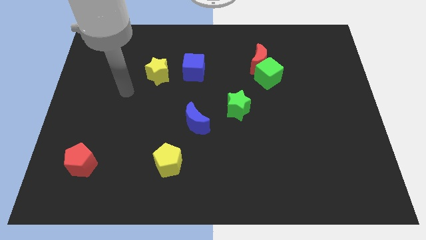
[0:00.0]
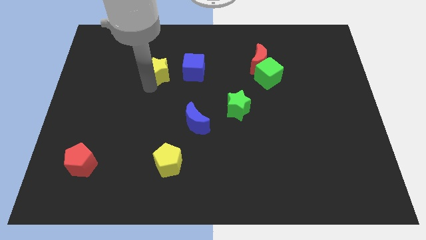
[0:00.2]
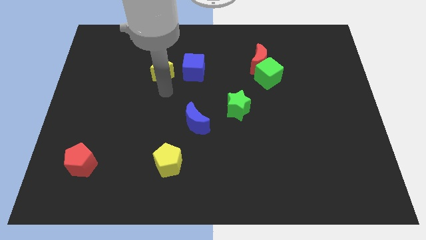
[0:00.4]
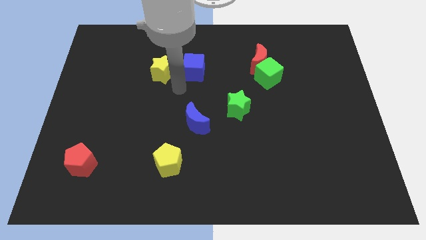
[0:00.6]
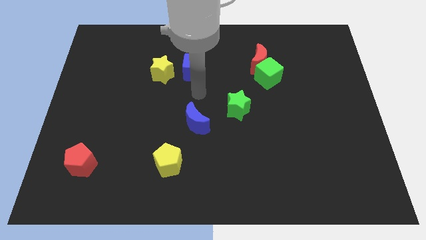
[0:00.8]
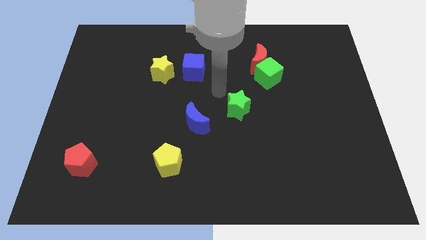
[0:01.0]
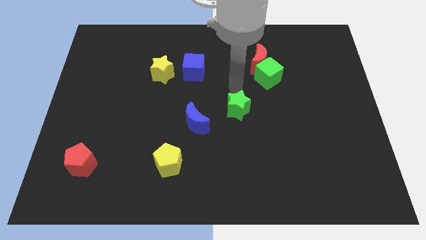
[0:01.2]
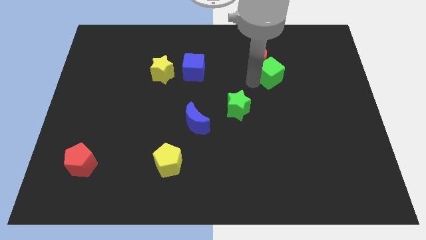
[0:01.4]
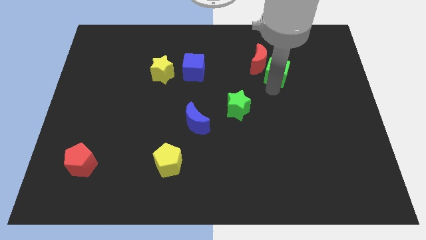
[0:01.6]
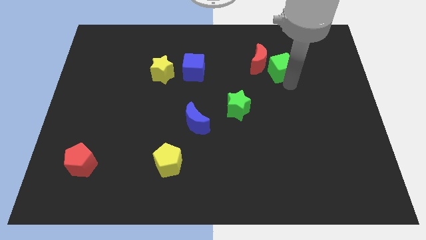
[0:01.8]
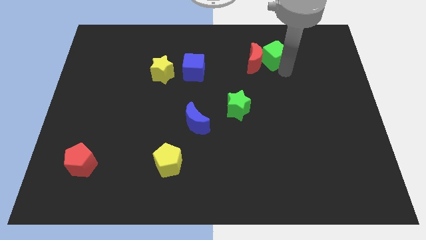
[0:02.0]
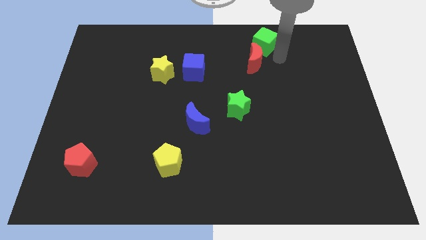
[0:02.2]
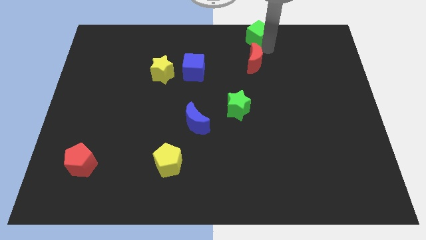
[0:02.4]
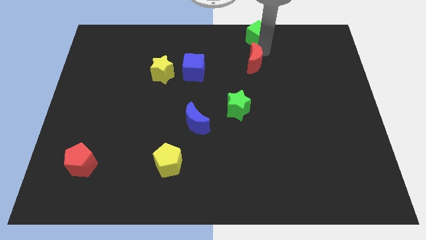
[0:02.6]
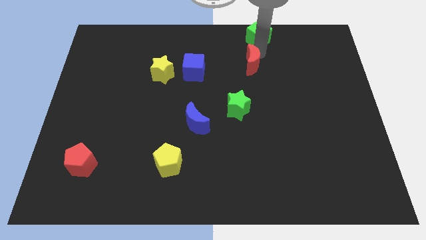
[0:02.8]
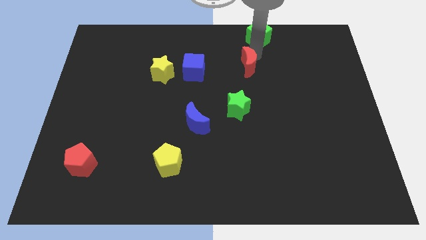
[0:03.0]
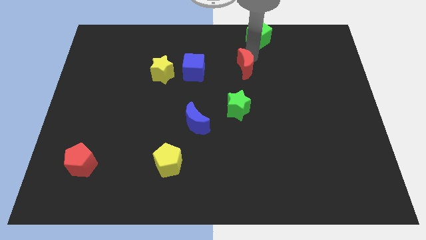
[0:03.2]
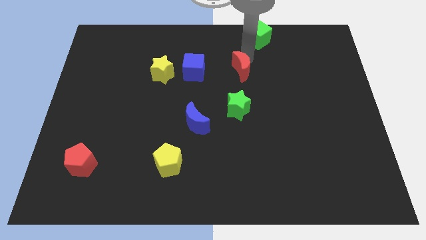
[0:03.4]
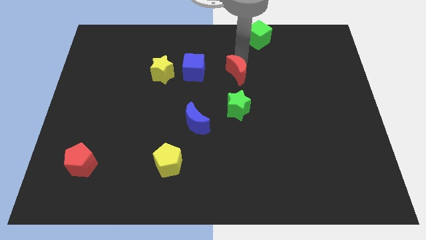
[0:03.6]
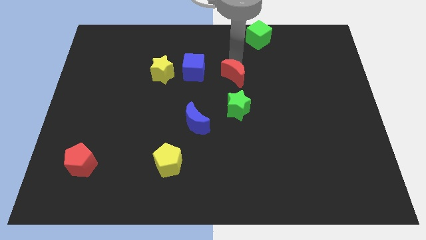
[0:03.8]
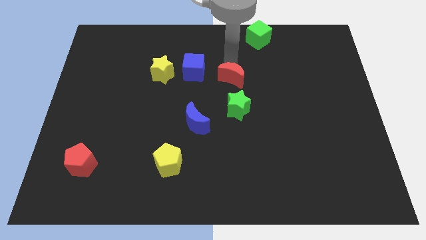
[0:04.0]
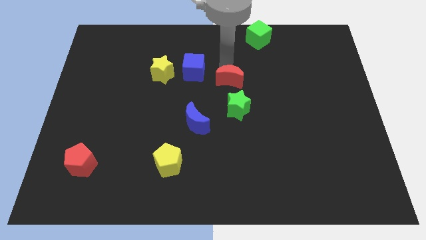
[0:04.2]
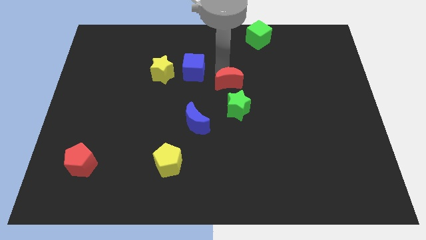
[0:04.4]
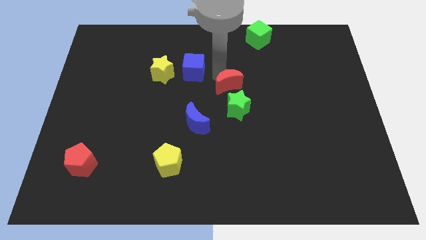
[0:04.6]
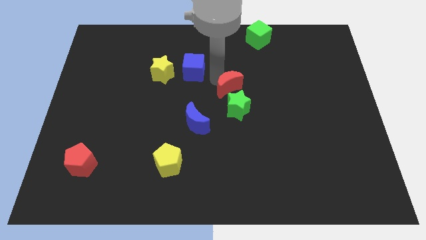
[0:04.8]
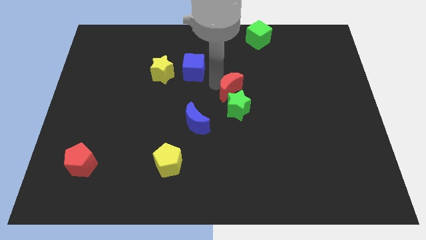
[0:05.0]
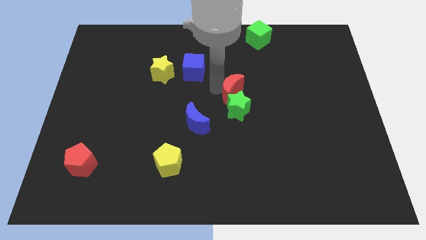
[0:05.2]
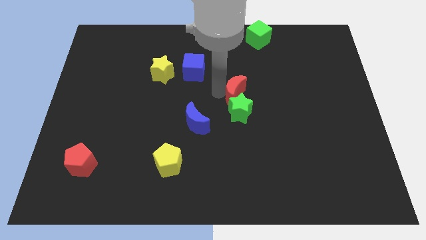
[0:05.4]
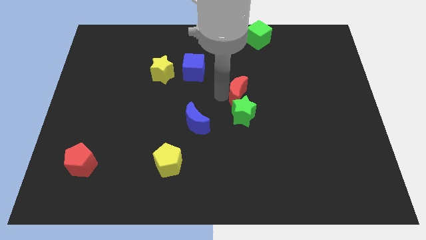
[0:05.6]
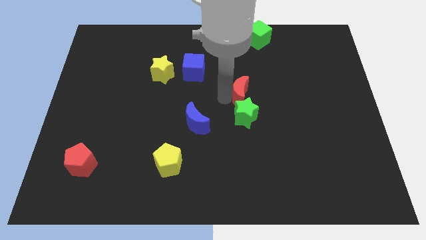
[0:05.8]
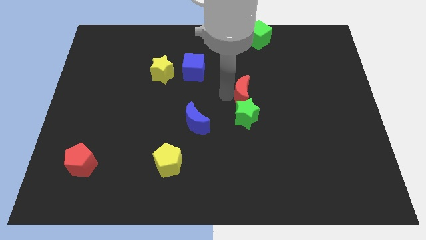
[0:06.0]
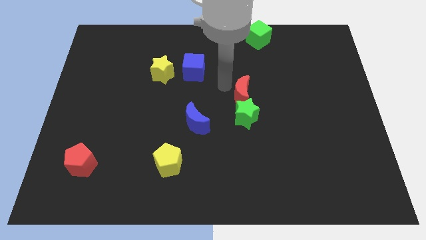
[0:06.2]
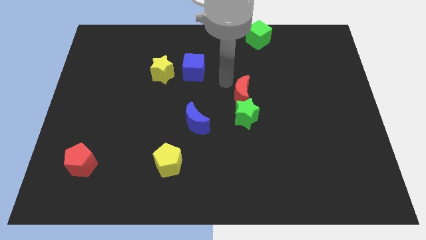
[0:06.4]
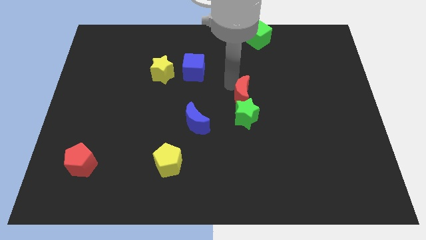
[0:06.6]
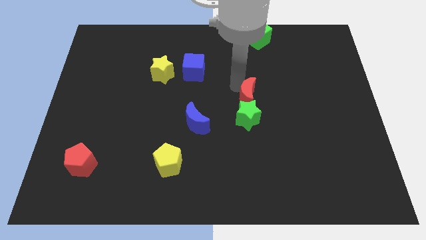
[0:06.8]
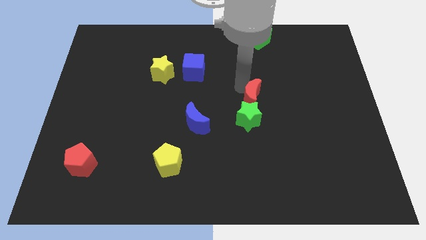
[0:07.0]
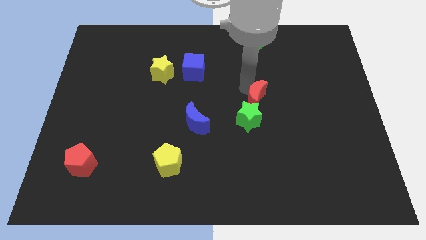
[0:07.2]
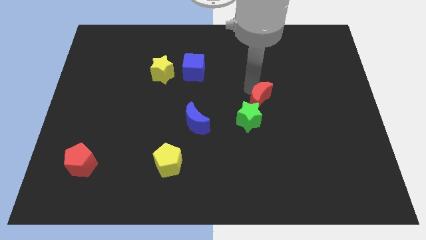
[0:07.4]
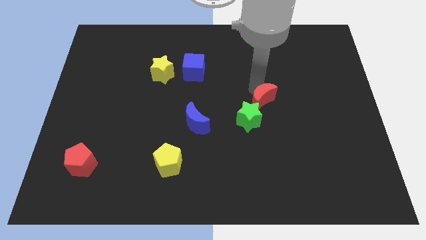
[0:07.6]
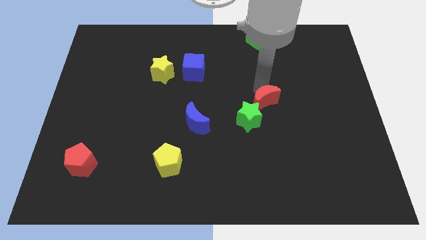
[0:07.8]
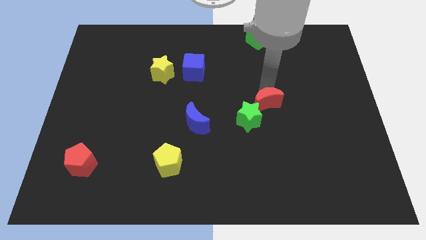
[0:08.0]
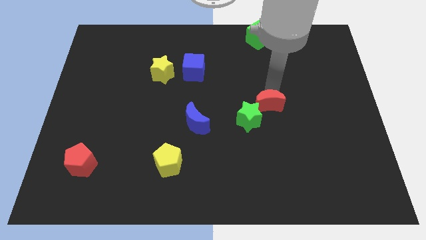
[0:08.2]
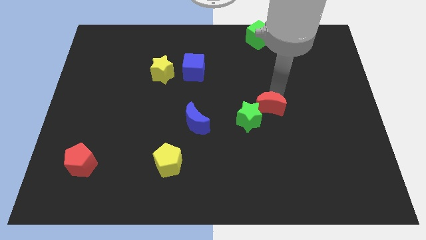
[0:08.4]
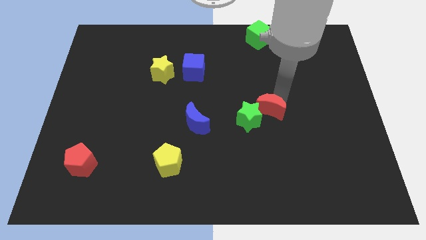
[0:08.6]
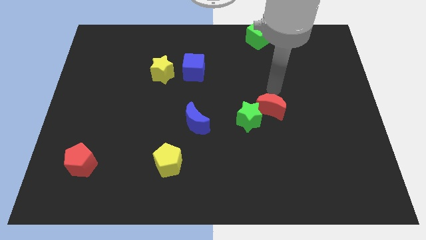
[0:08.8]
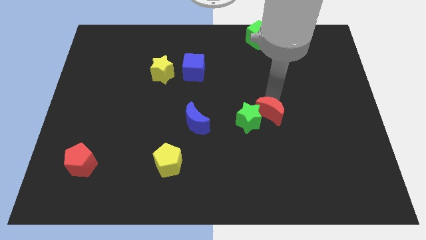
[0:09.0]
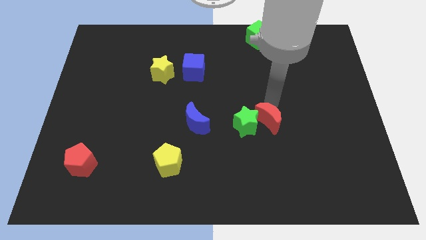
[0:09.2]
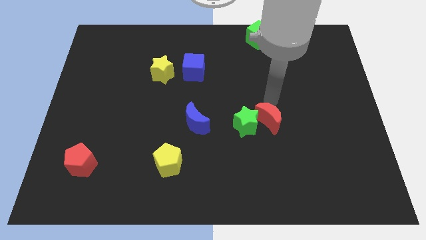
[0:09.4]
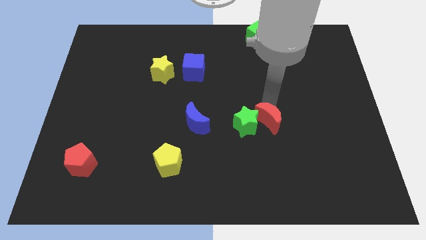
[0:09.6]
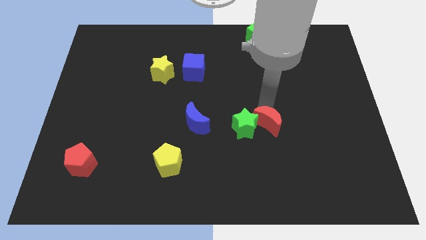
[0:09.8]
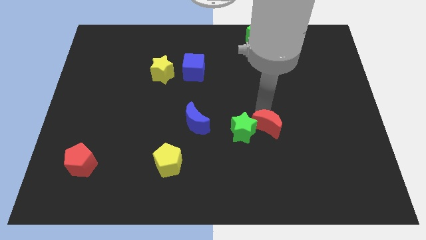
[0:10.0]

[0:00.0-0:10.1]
slide the red moon down

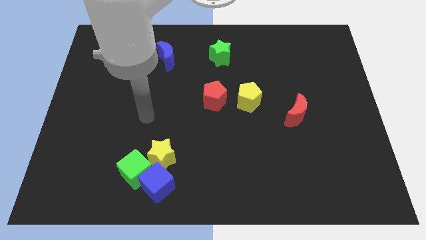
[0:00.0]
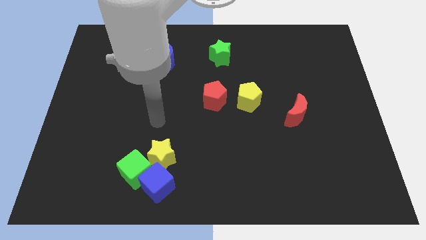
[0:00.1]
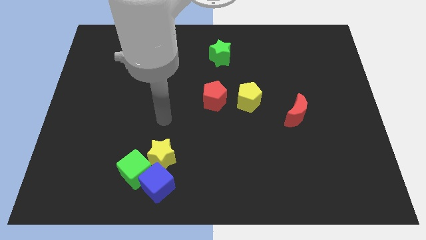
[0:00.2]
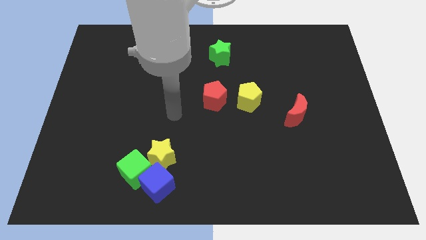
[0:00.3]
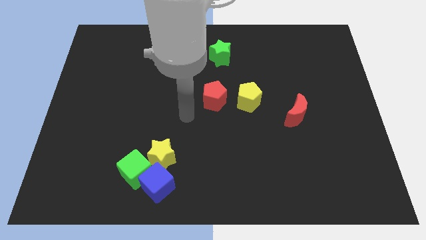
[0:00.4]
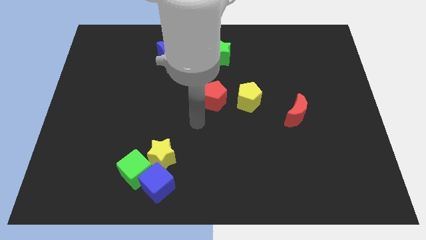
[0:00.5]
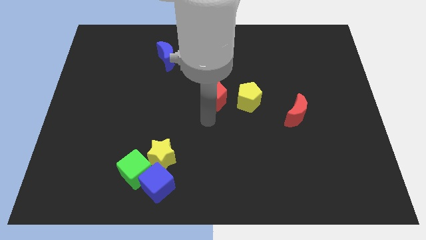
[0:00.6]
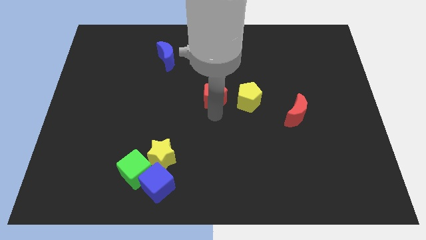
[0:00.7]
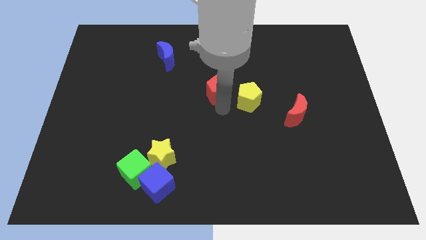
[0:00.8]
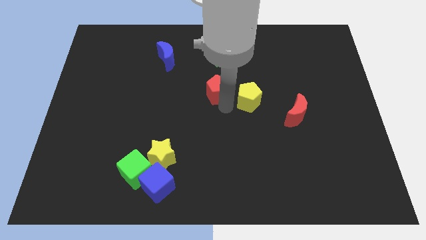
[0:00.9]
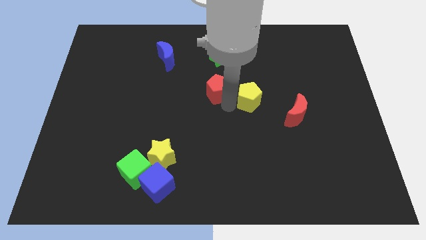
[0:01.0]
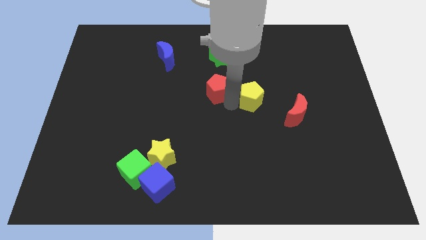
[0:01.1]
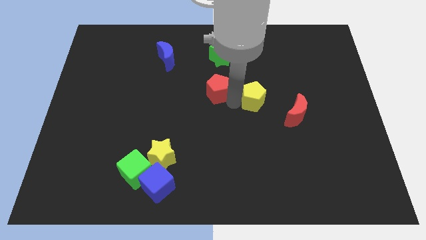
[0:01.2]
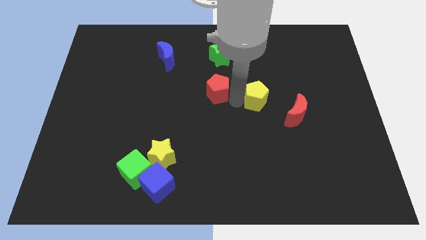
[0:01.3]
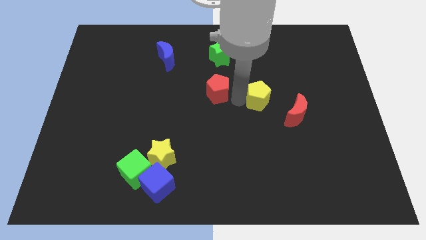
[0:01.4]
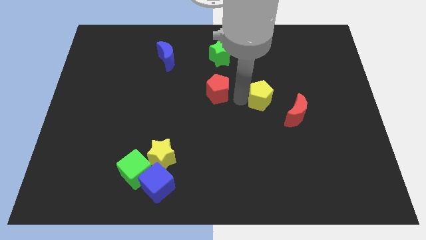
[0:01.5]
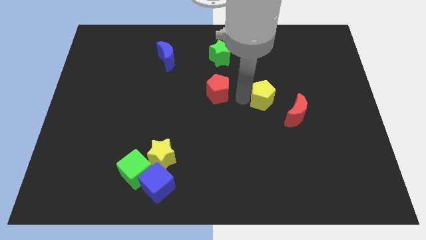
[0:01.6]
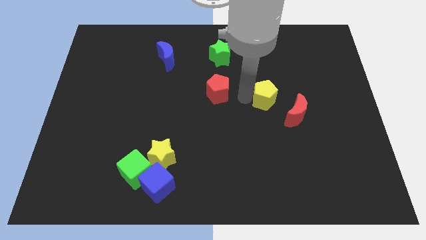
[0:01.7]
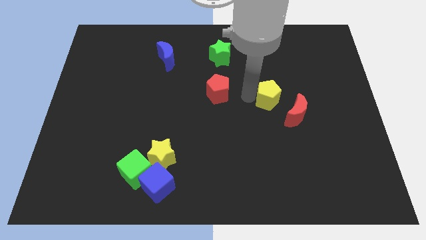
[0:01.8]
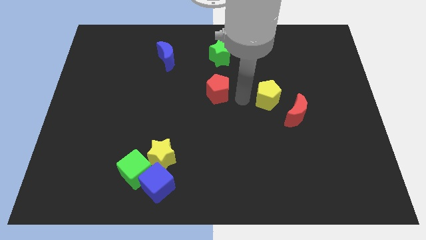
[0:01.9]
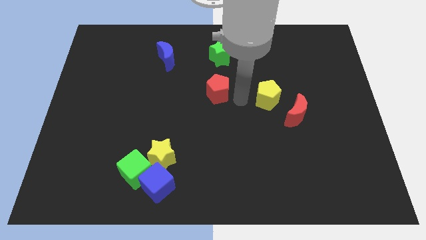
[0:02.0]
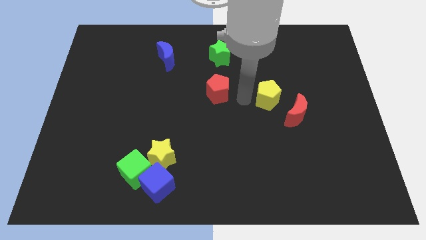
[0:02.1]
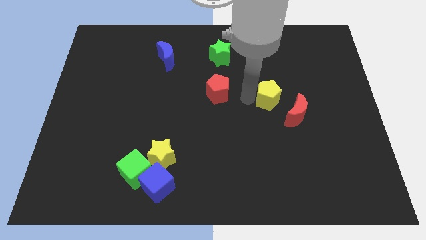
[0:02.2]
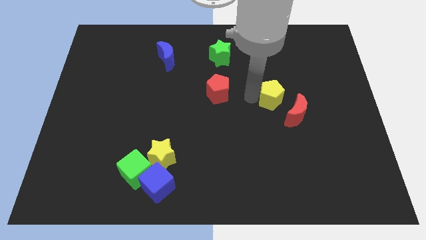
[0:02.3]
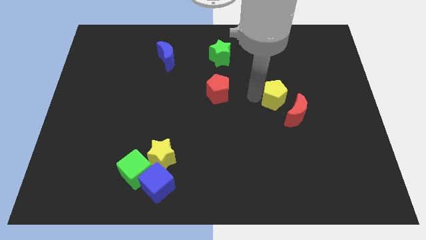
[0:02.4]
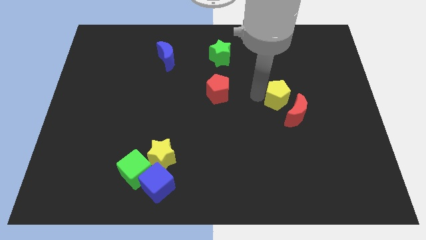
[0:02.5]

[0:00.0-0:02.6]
move the yellow pentagon right somewhat

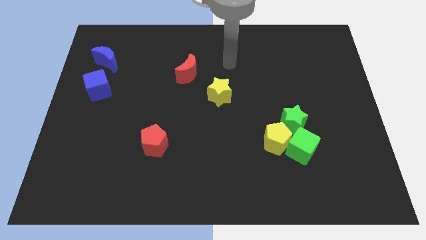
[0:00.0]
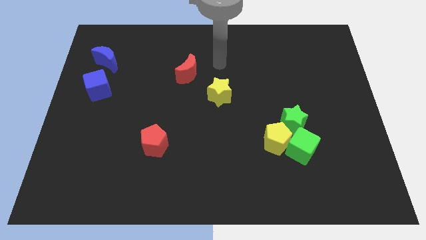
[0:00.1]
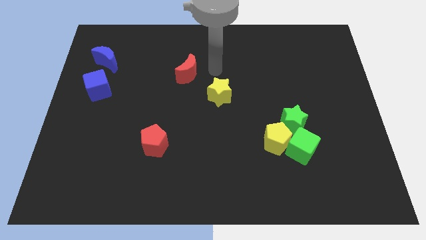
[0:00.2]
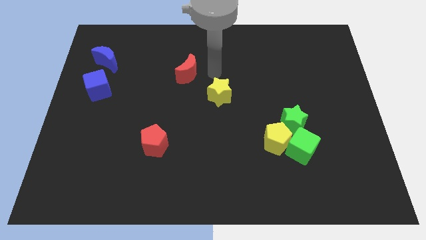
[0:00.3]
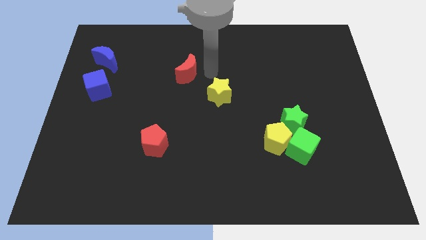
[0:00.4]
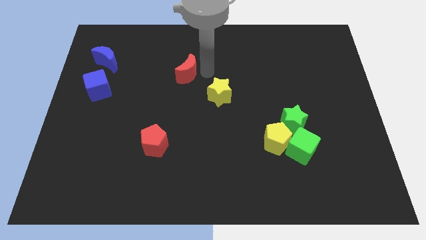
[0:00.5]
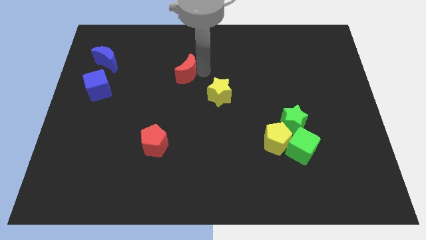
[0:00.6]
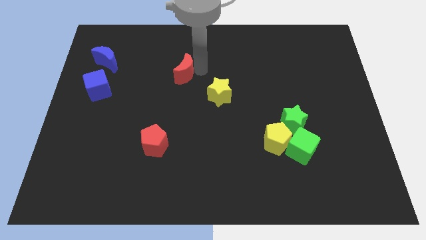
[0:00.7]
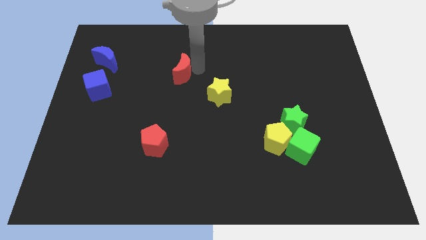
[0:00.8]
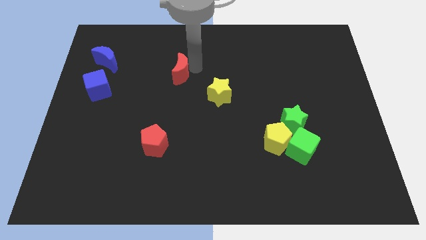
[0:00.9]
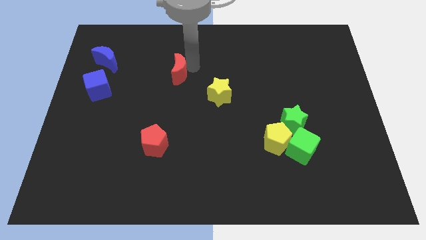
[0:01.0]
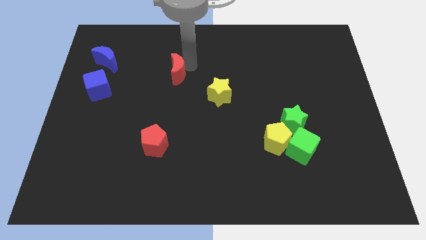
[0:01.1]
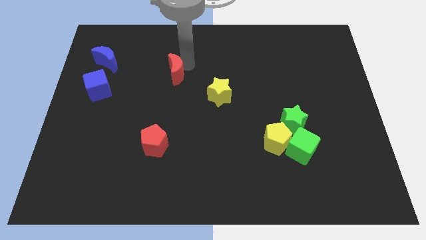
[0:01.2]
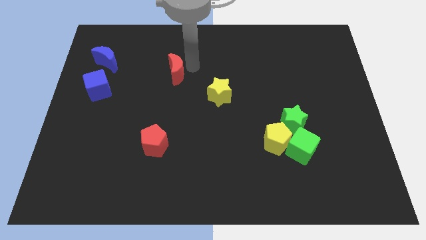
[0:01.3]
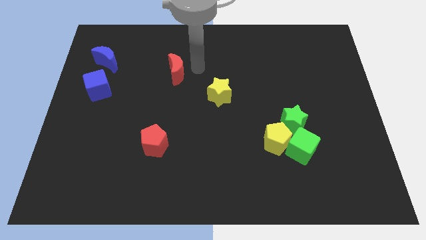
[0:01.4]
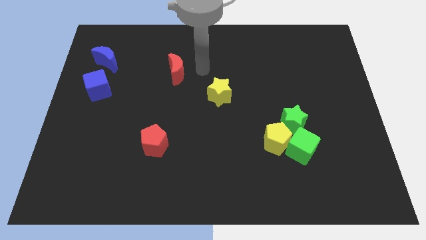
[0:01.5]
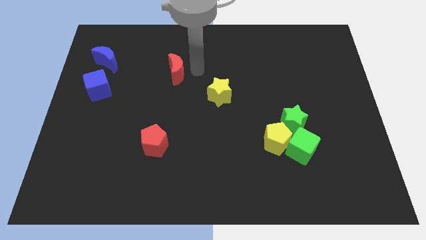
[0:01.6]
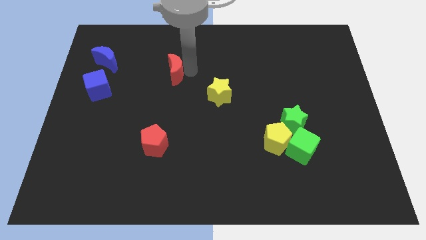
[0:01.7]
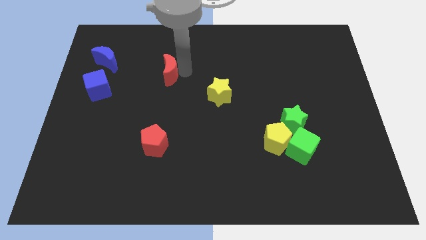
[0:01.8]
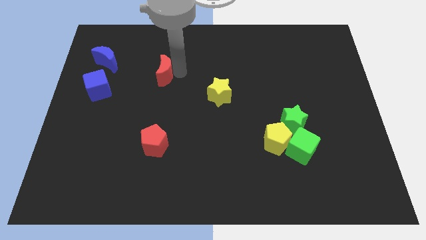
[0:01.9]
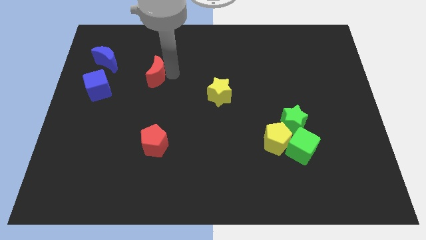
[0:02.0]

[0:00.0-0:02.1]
push the red moon left slightly
